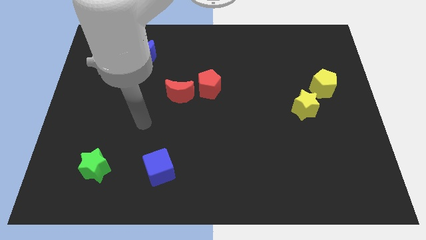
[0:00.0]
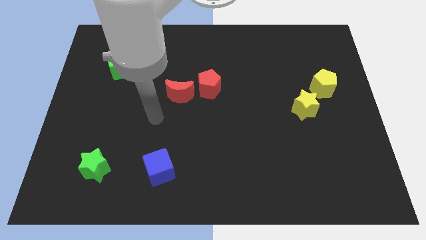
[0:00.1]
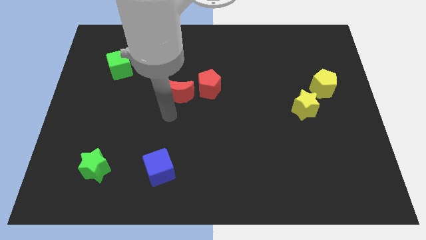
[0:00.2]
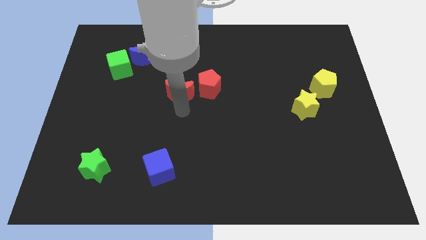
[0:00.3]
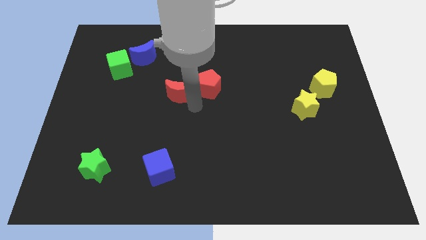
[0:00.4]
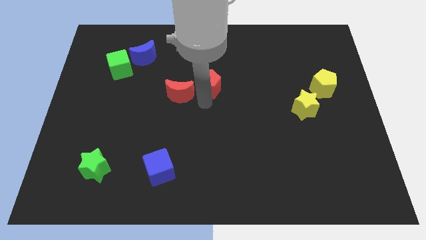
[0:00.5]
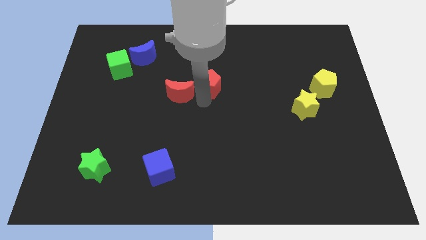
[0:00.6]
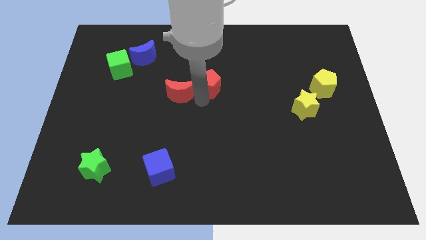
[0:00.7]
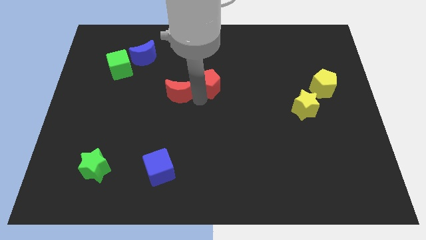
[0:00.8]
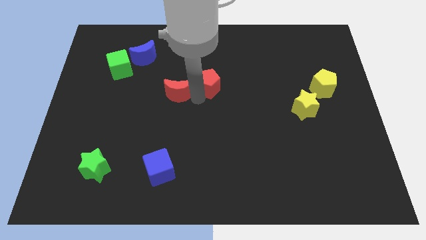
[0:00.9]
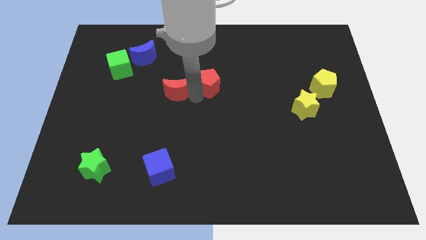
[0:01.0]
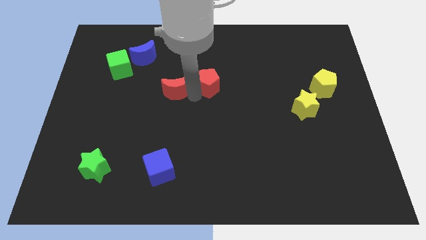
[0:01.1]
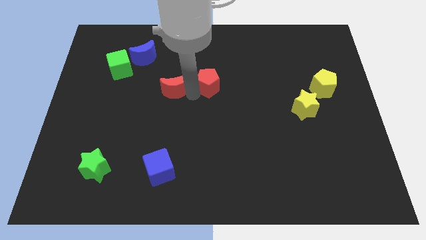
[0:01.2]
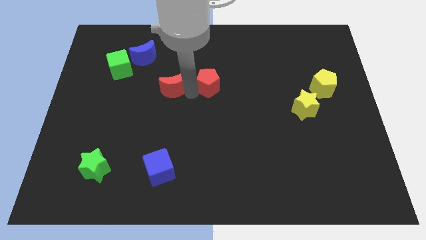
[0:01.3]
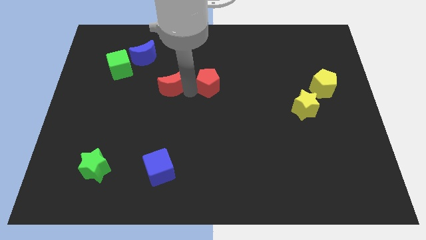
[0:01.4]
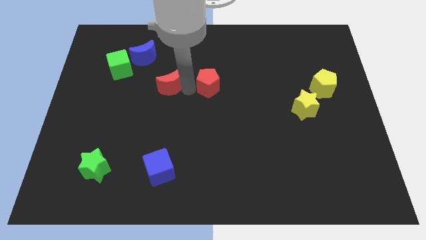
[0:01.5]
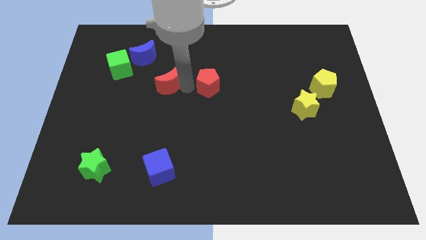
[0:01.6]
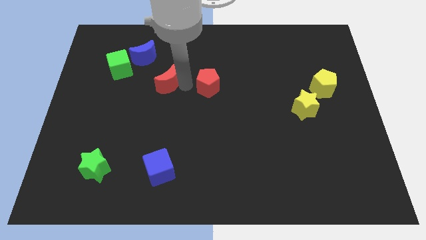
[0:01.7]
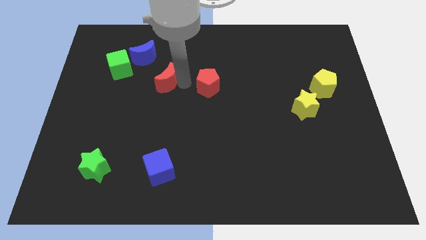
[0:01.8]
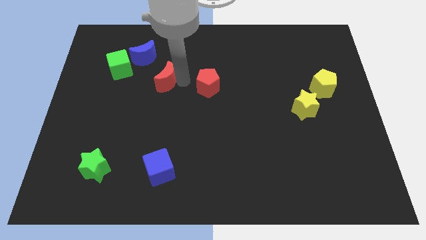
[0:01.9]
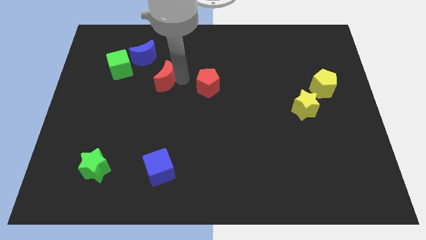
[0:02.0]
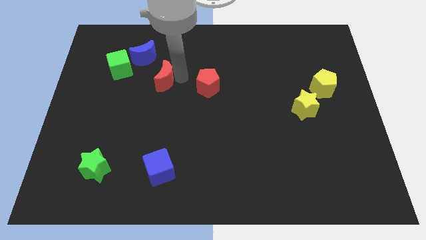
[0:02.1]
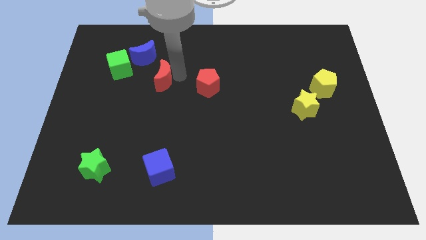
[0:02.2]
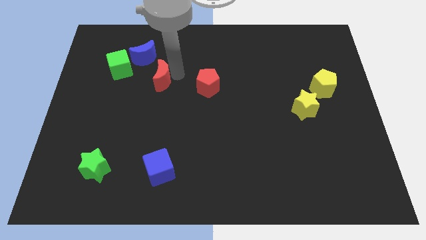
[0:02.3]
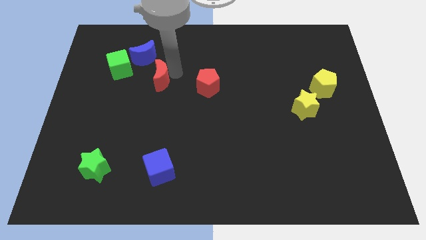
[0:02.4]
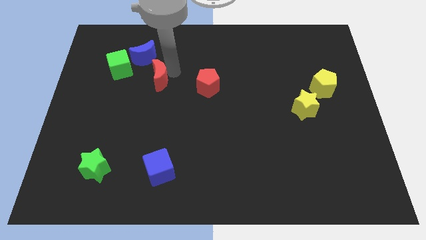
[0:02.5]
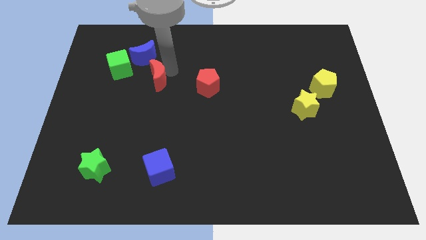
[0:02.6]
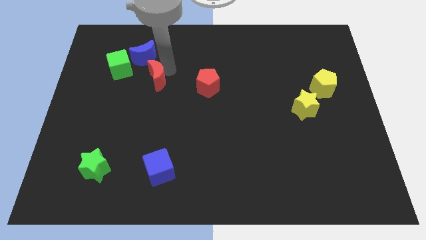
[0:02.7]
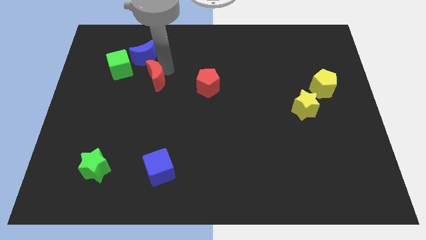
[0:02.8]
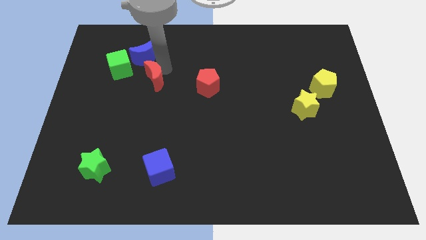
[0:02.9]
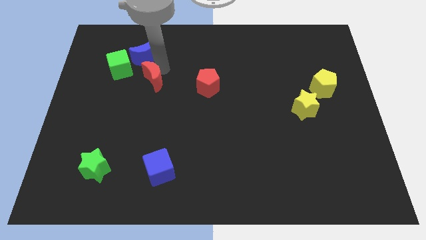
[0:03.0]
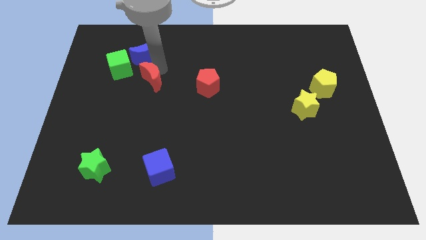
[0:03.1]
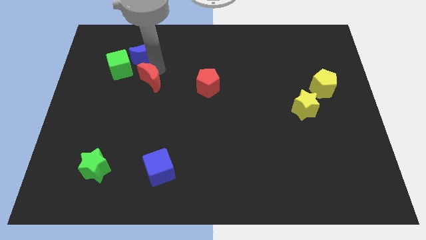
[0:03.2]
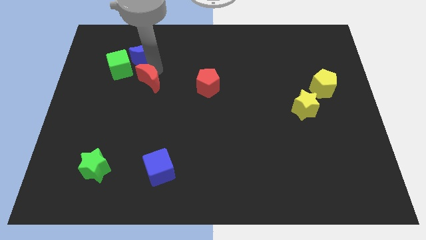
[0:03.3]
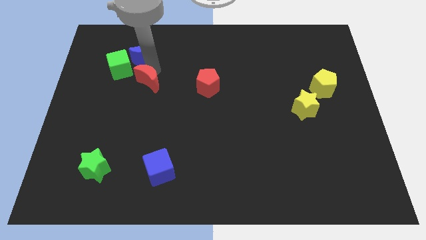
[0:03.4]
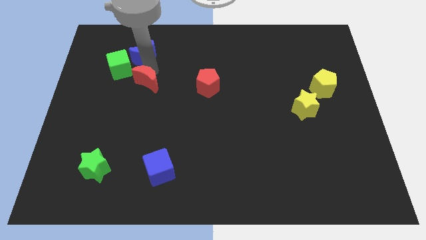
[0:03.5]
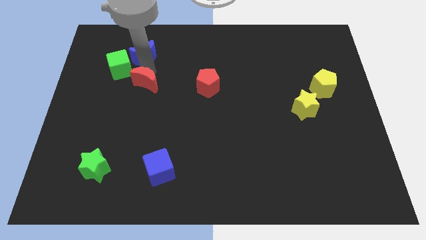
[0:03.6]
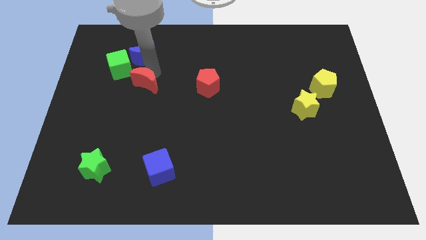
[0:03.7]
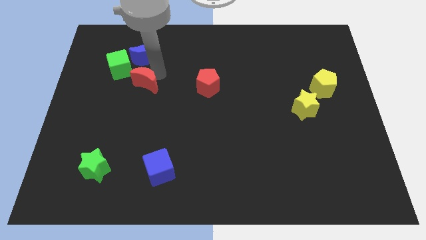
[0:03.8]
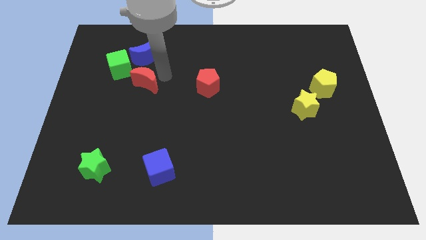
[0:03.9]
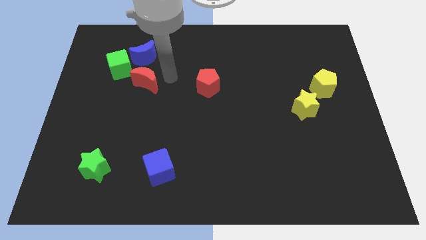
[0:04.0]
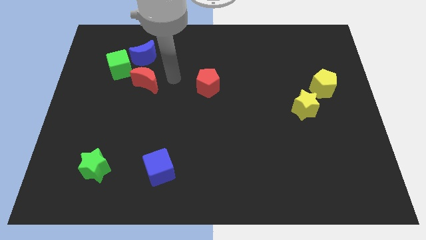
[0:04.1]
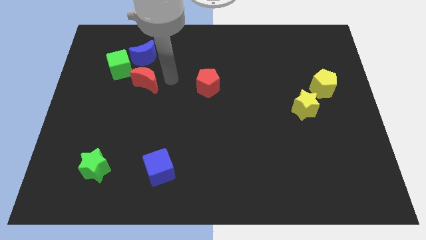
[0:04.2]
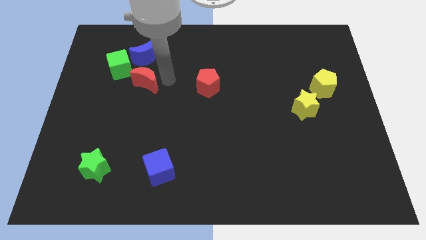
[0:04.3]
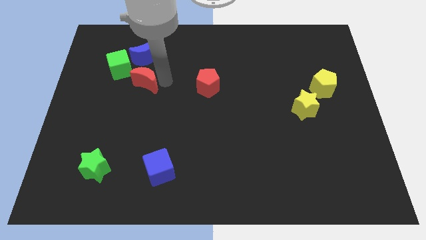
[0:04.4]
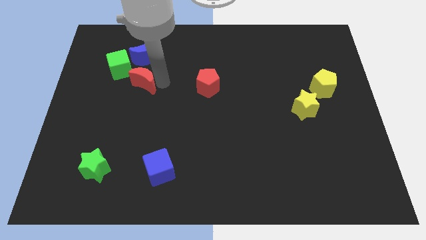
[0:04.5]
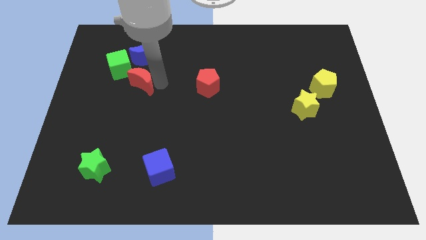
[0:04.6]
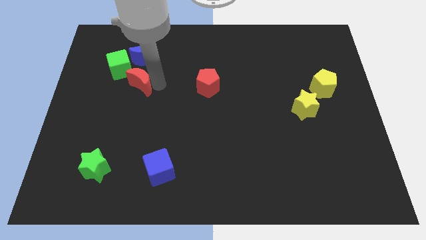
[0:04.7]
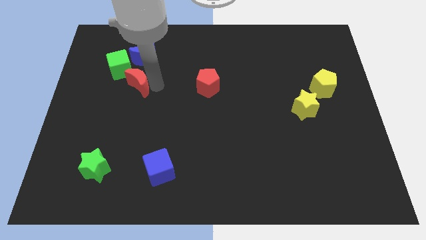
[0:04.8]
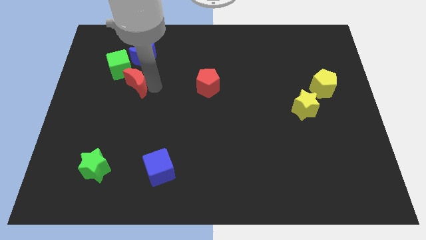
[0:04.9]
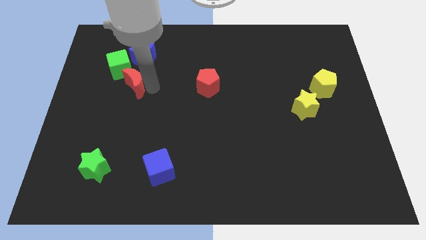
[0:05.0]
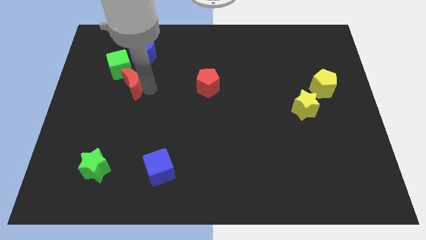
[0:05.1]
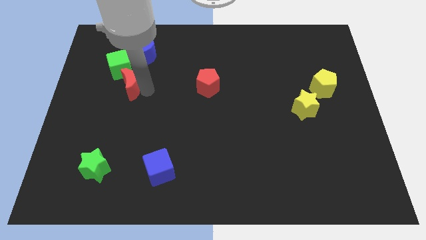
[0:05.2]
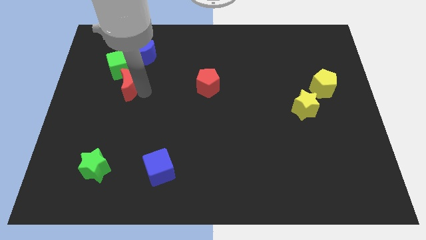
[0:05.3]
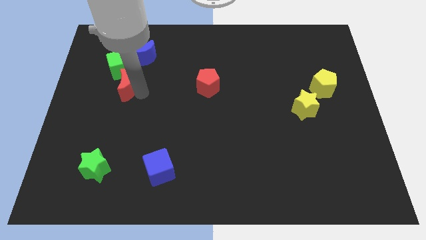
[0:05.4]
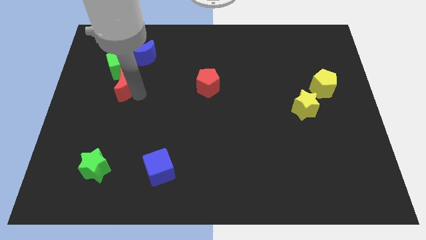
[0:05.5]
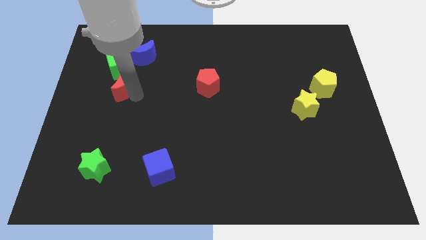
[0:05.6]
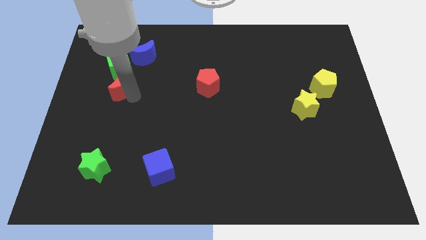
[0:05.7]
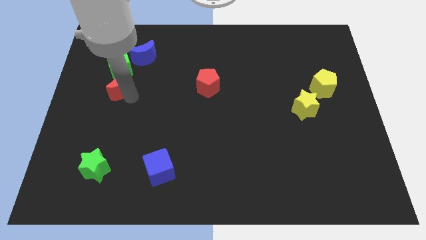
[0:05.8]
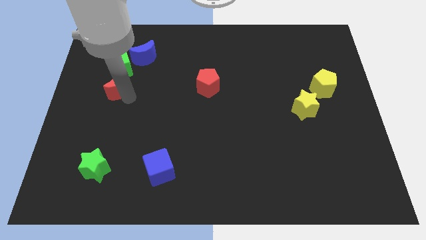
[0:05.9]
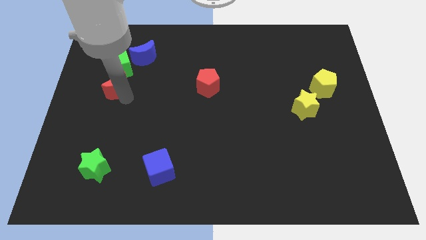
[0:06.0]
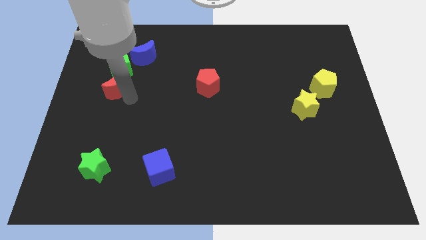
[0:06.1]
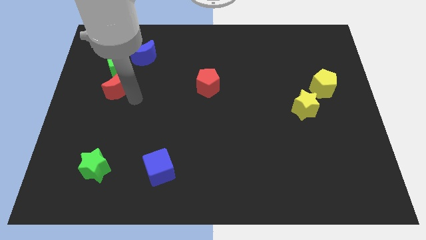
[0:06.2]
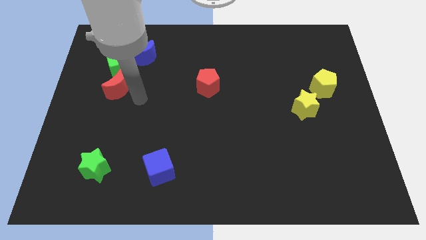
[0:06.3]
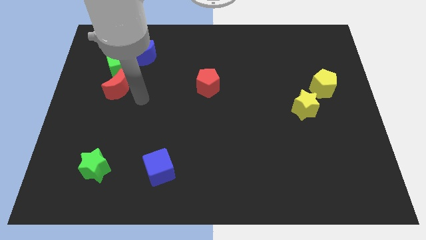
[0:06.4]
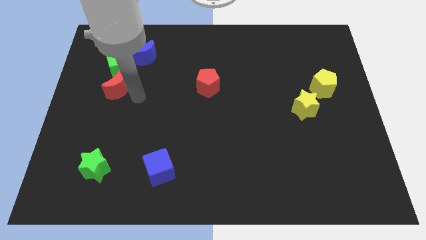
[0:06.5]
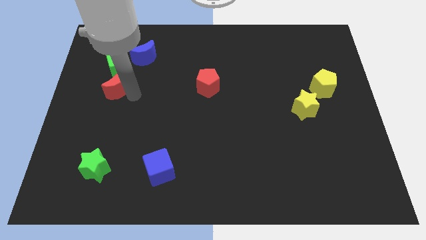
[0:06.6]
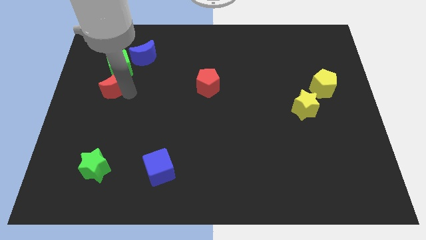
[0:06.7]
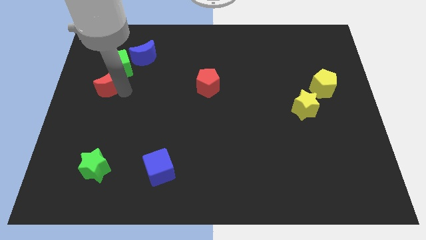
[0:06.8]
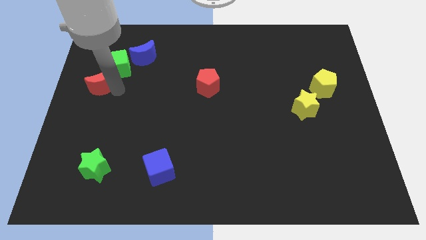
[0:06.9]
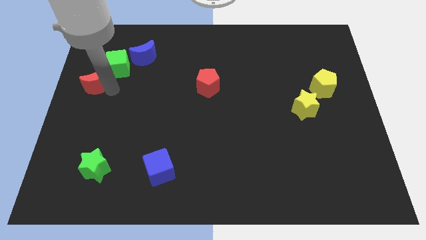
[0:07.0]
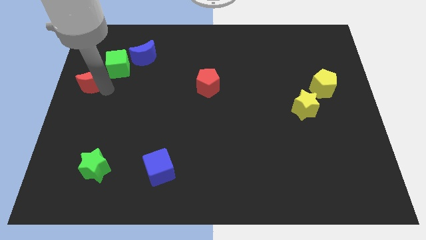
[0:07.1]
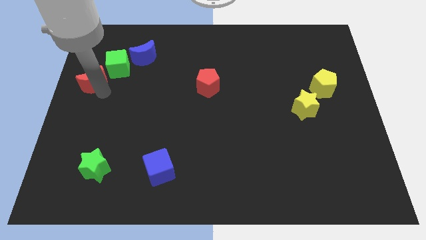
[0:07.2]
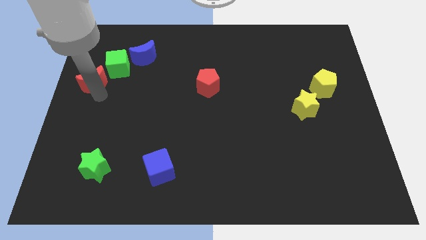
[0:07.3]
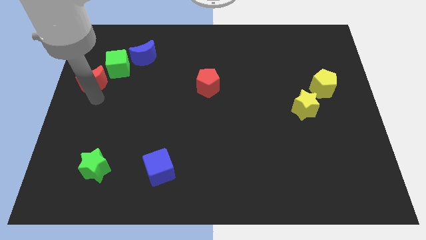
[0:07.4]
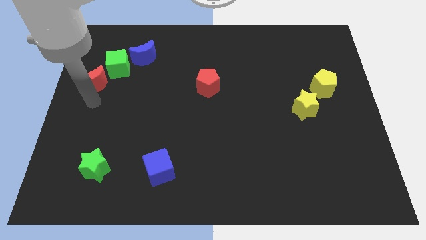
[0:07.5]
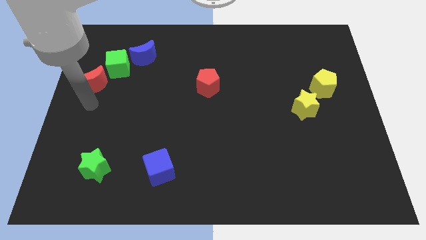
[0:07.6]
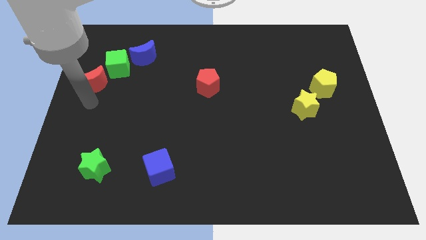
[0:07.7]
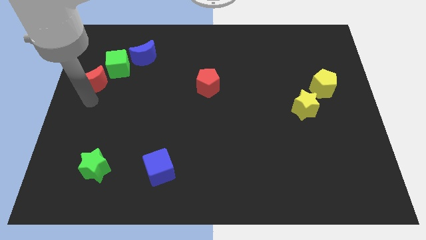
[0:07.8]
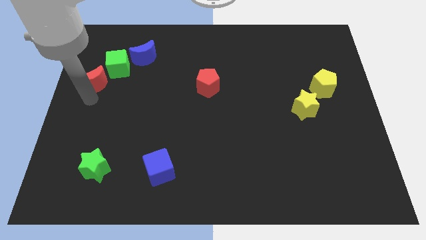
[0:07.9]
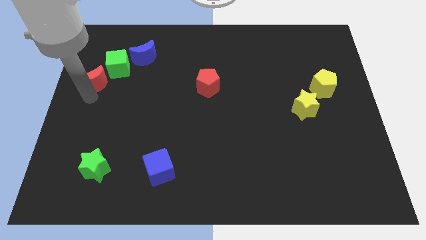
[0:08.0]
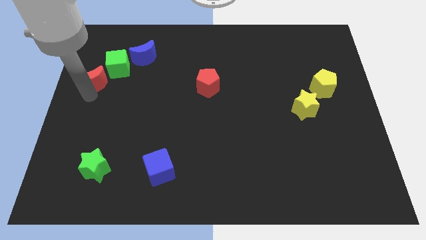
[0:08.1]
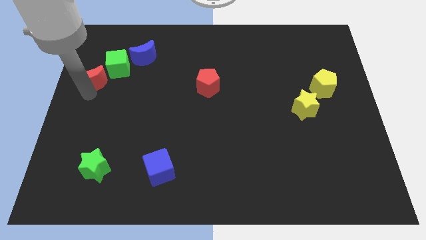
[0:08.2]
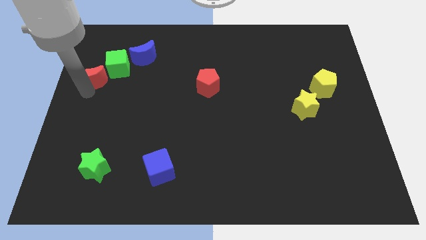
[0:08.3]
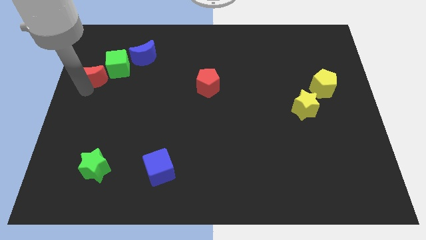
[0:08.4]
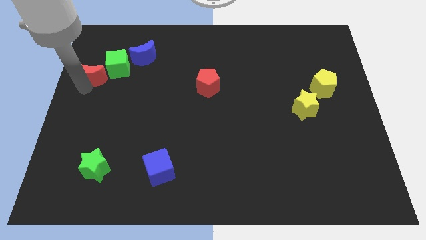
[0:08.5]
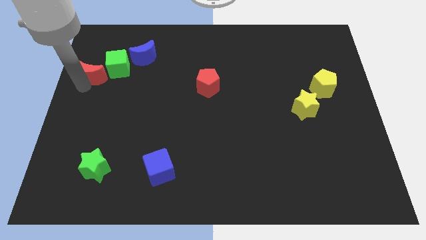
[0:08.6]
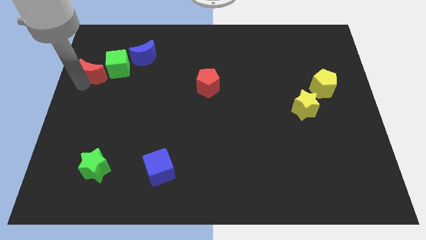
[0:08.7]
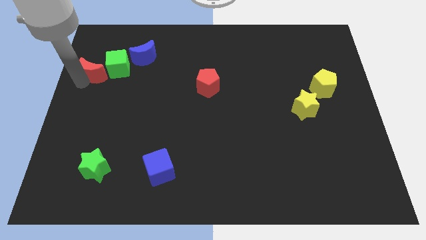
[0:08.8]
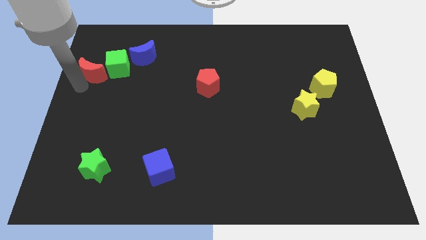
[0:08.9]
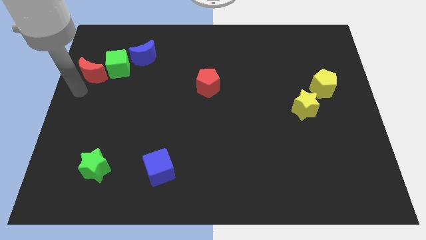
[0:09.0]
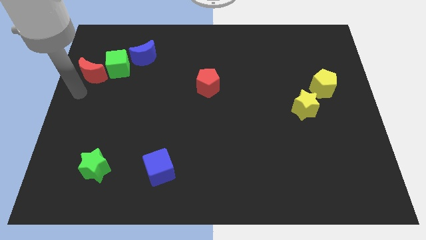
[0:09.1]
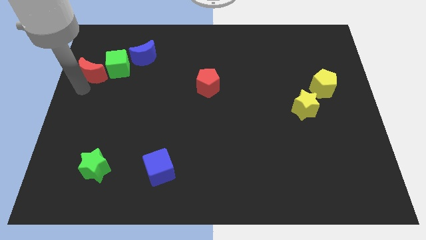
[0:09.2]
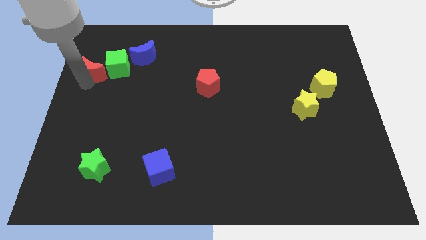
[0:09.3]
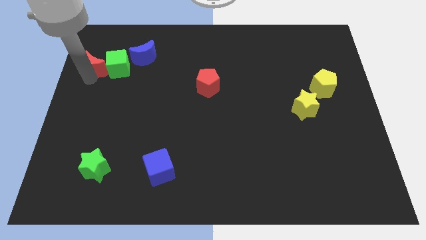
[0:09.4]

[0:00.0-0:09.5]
move the red moon just left of the blue moon
